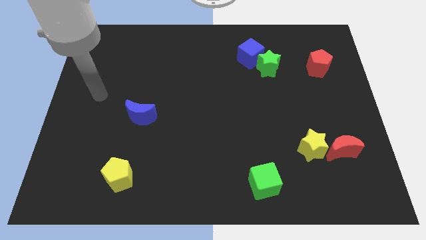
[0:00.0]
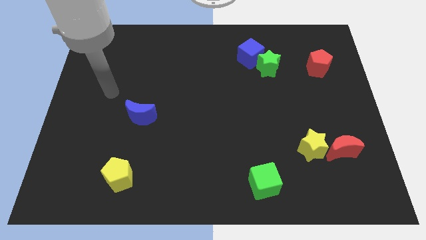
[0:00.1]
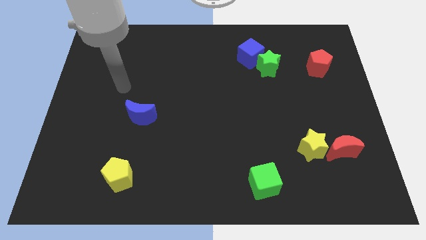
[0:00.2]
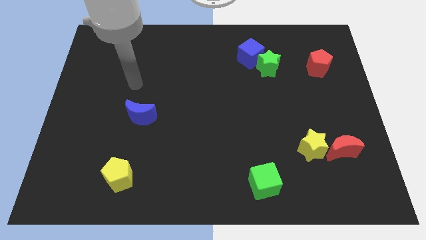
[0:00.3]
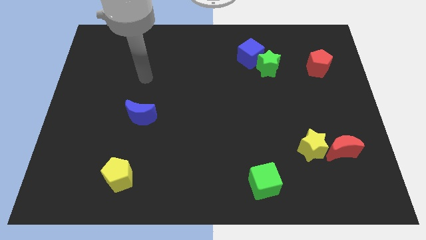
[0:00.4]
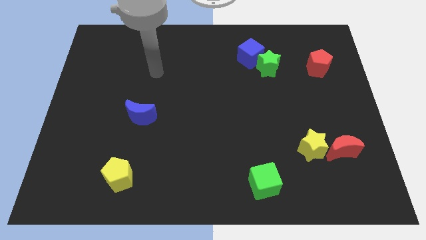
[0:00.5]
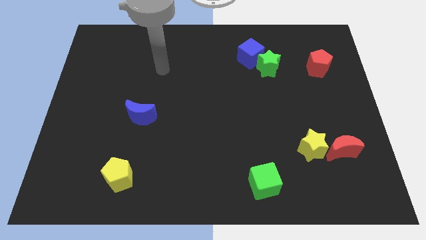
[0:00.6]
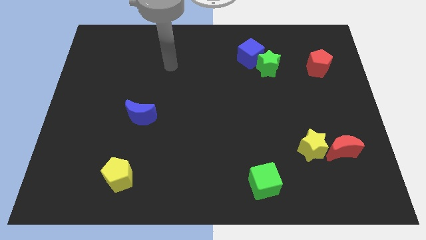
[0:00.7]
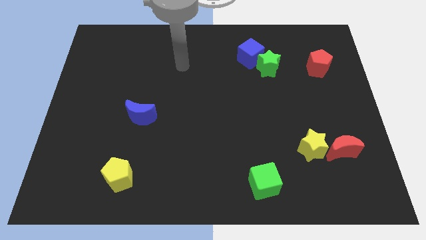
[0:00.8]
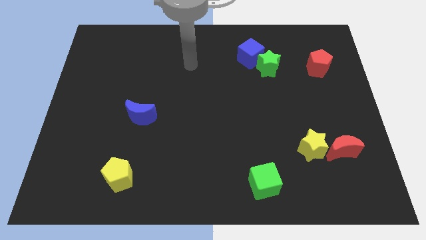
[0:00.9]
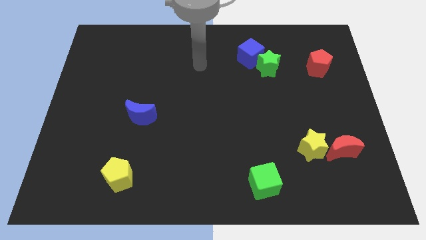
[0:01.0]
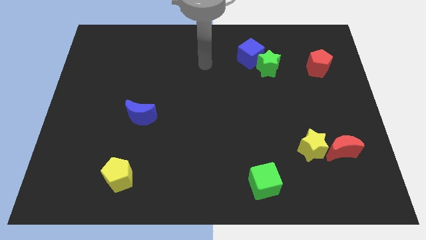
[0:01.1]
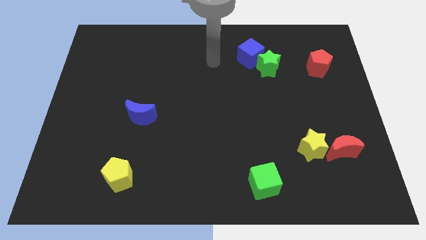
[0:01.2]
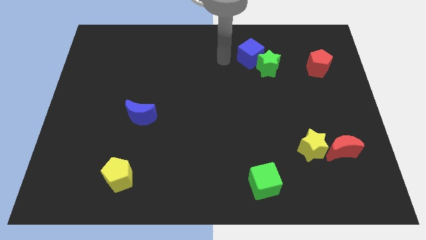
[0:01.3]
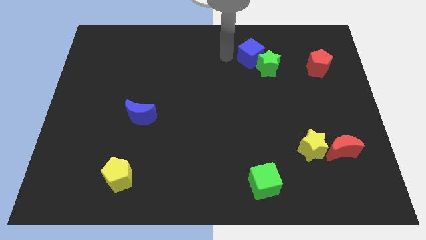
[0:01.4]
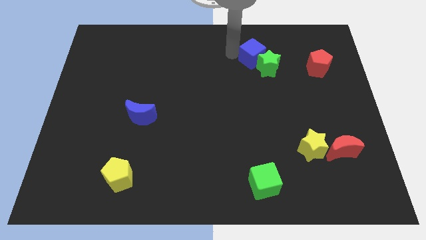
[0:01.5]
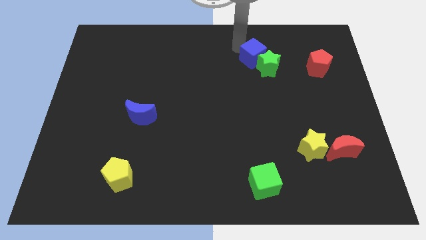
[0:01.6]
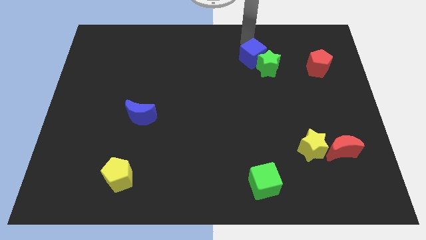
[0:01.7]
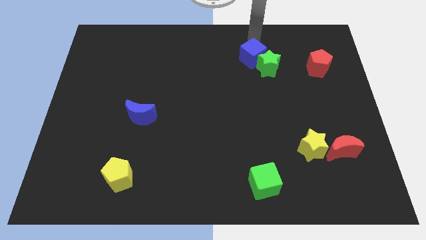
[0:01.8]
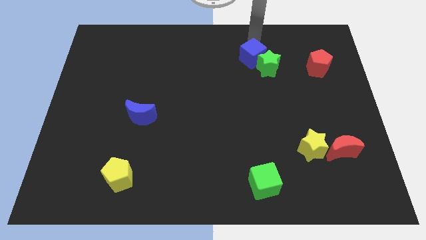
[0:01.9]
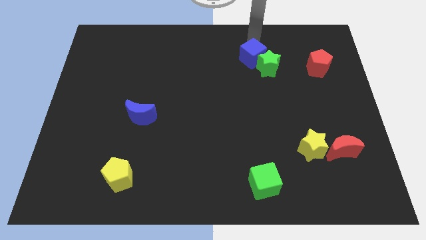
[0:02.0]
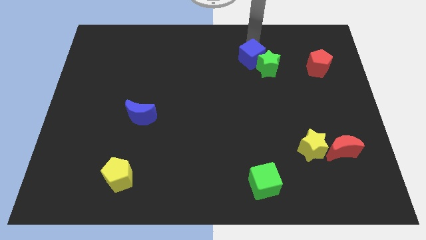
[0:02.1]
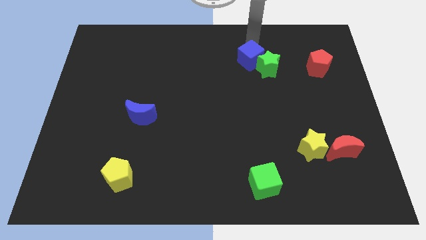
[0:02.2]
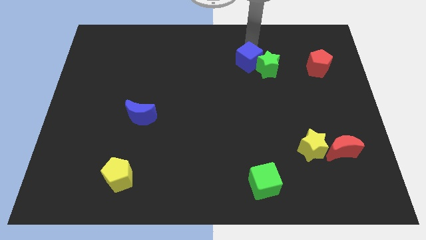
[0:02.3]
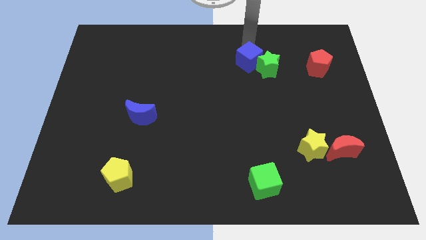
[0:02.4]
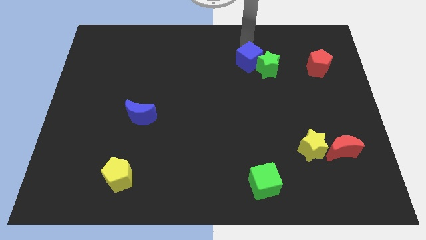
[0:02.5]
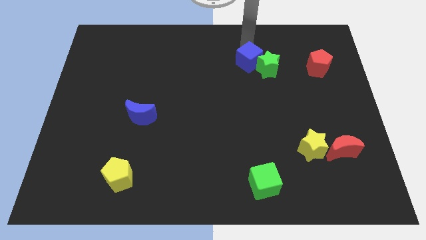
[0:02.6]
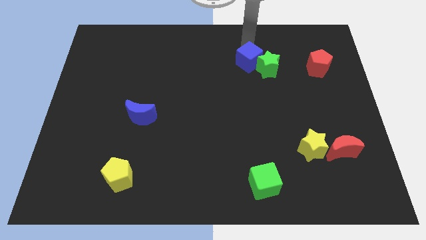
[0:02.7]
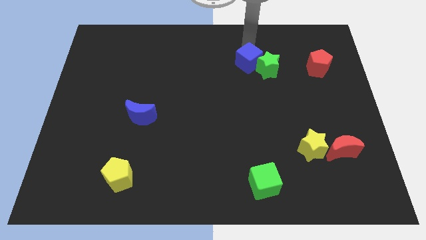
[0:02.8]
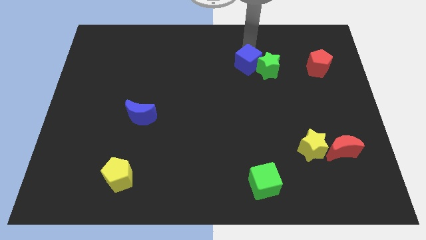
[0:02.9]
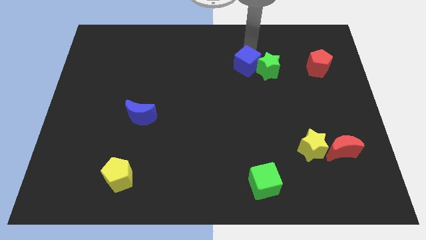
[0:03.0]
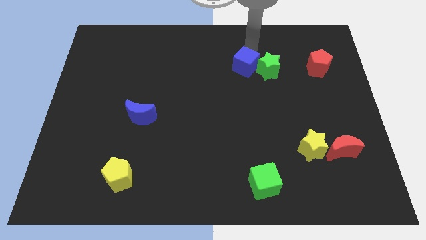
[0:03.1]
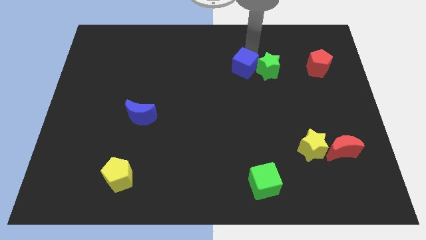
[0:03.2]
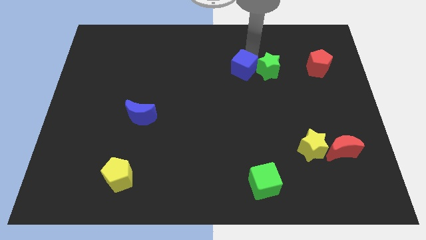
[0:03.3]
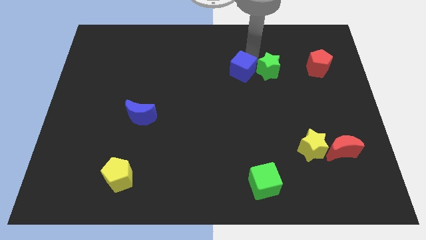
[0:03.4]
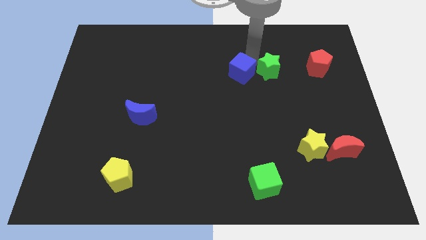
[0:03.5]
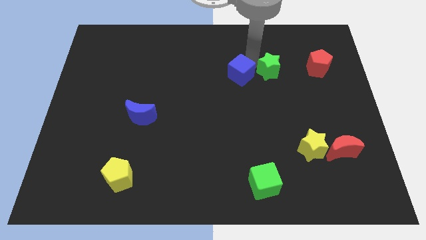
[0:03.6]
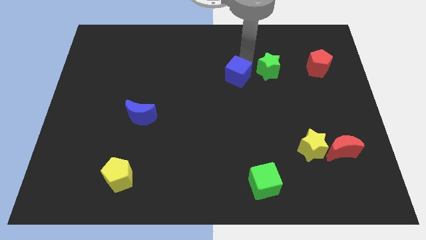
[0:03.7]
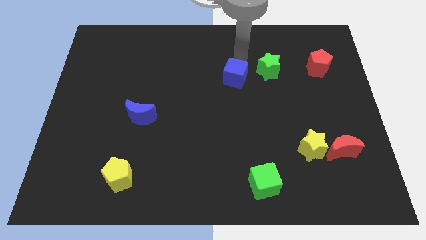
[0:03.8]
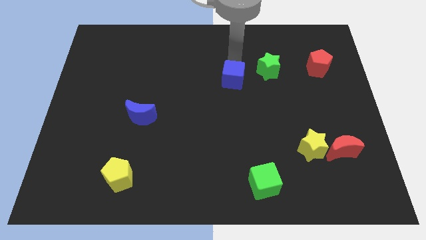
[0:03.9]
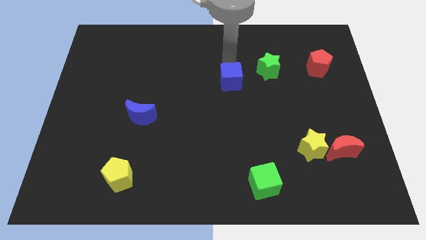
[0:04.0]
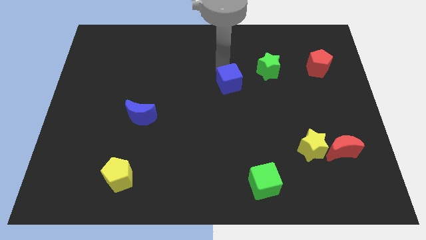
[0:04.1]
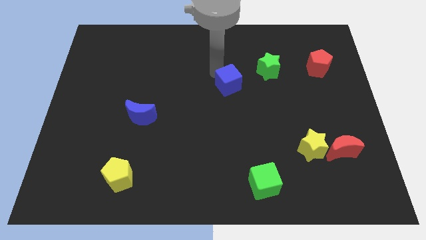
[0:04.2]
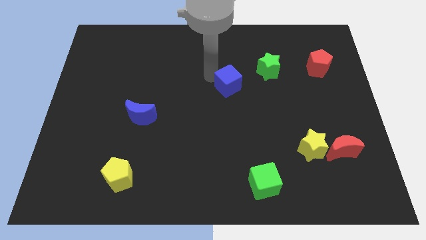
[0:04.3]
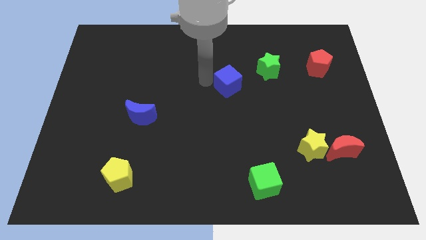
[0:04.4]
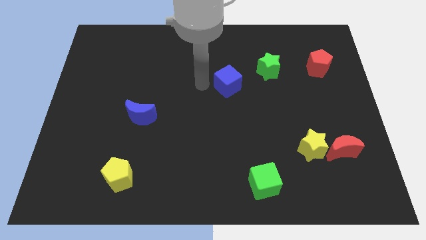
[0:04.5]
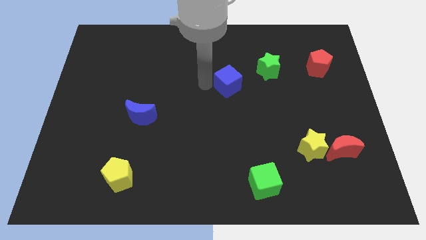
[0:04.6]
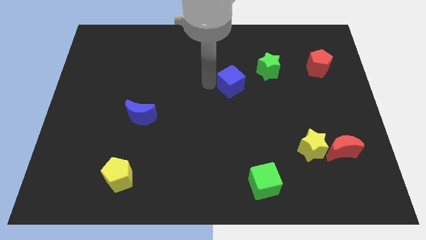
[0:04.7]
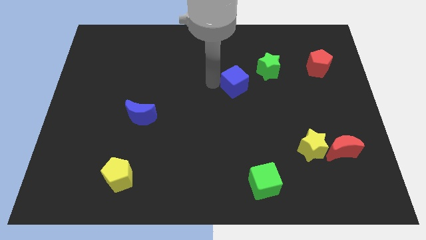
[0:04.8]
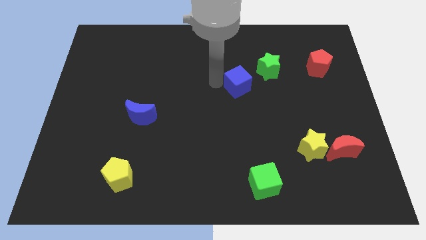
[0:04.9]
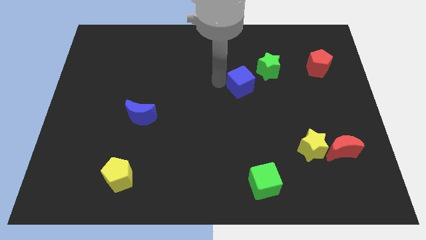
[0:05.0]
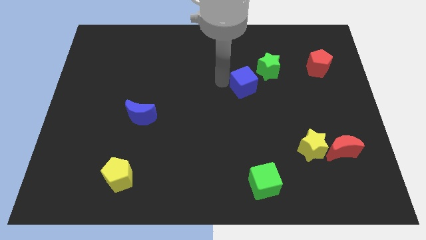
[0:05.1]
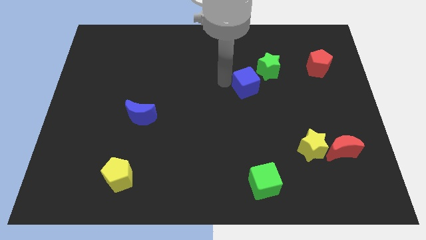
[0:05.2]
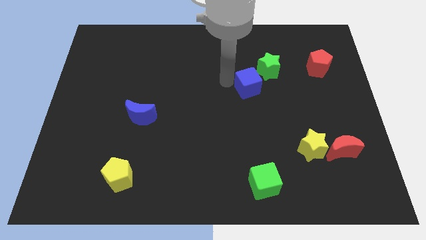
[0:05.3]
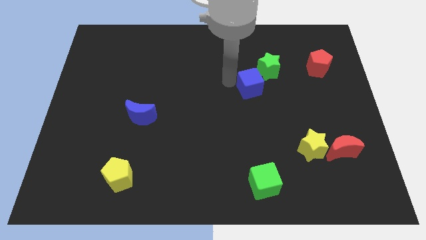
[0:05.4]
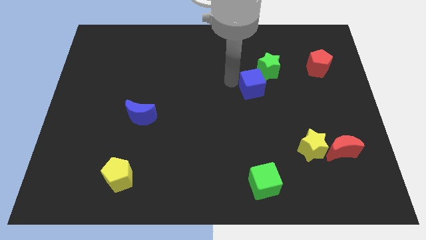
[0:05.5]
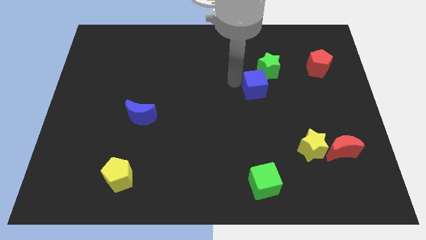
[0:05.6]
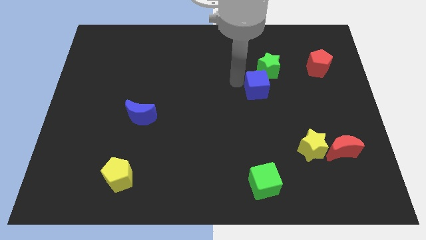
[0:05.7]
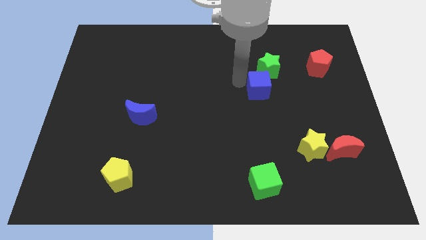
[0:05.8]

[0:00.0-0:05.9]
slightly slide the blue cube down and right

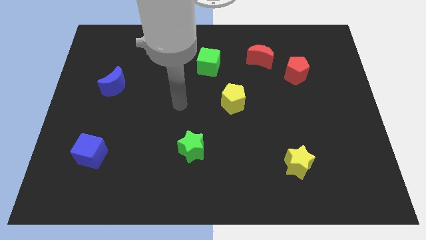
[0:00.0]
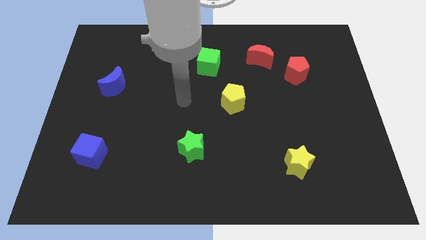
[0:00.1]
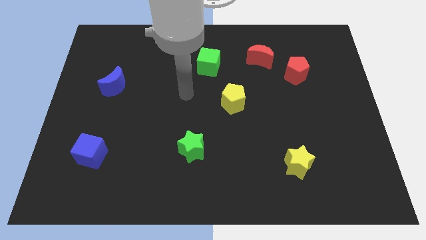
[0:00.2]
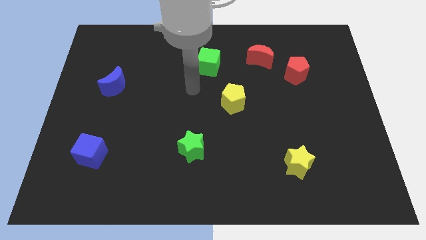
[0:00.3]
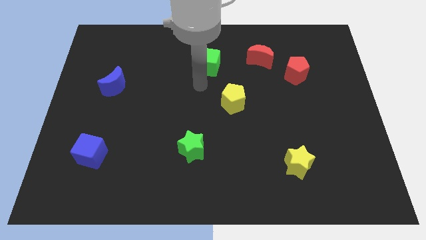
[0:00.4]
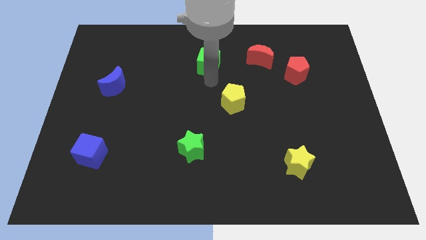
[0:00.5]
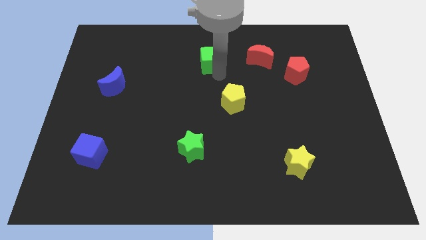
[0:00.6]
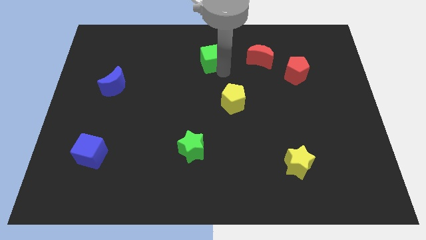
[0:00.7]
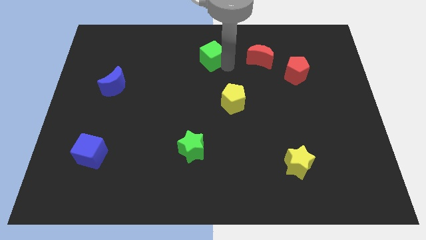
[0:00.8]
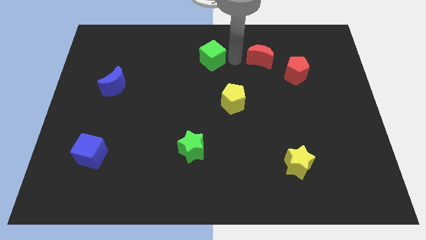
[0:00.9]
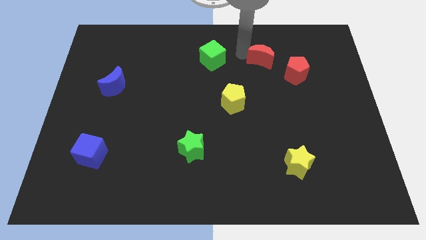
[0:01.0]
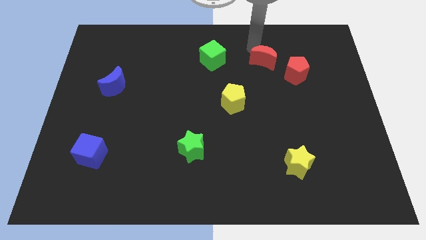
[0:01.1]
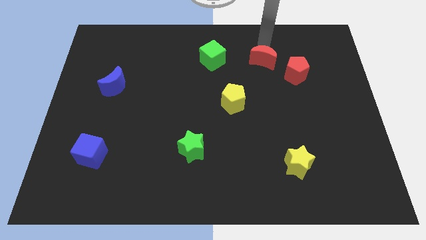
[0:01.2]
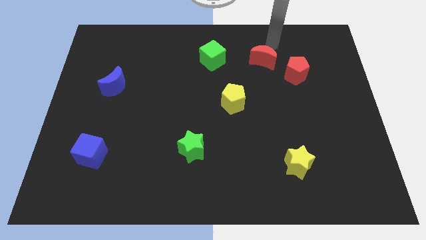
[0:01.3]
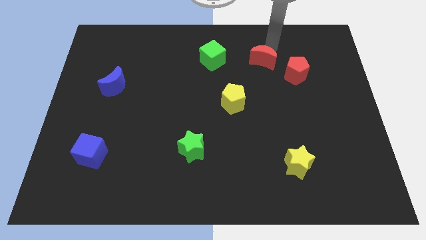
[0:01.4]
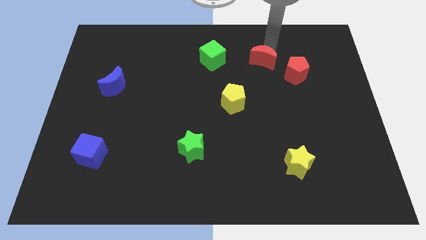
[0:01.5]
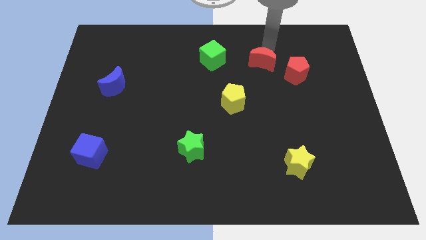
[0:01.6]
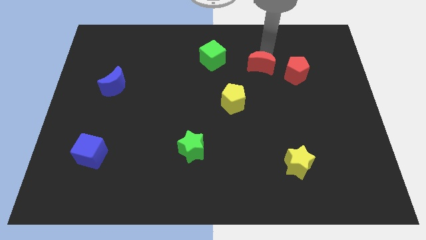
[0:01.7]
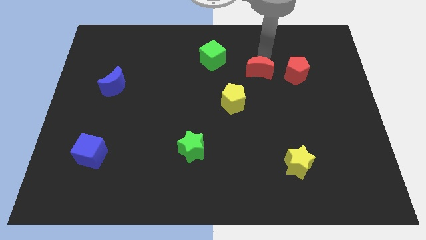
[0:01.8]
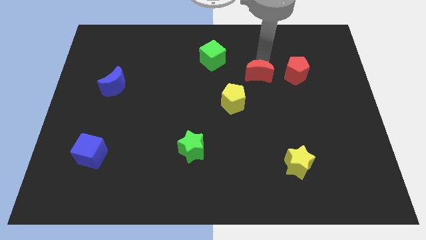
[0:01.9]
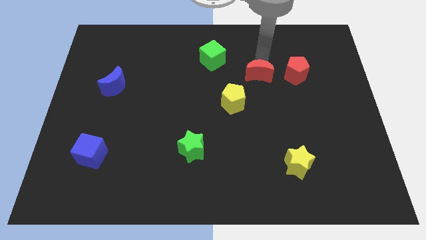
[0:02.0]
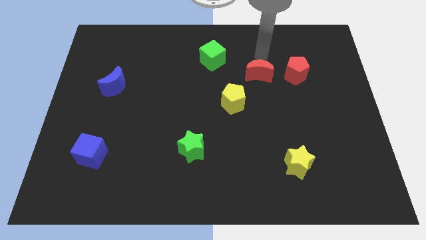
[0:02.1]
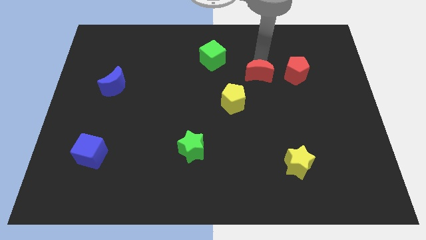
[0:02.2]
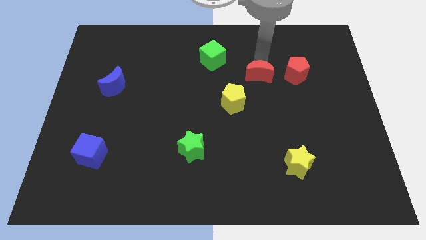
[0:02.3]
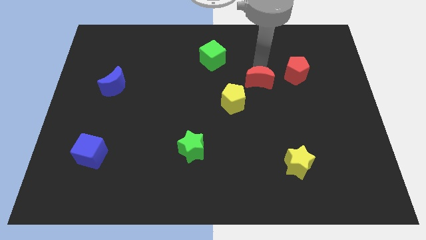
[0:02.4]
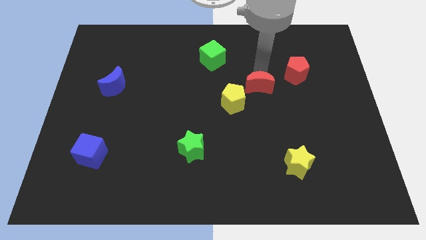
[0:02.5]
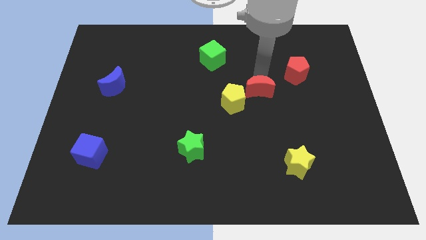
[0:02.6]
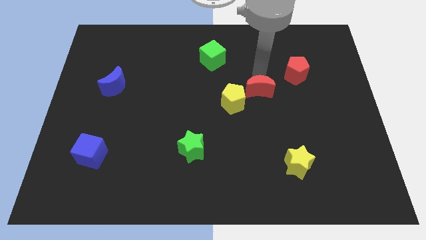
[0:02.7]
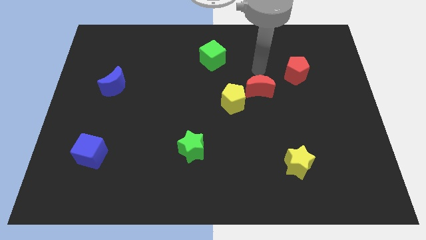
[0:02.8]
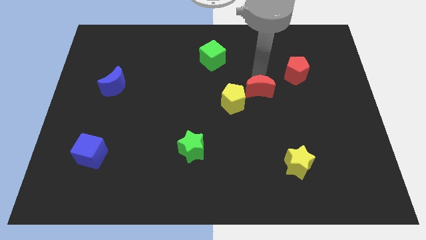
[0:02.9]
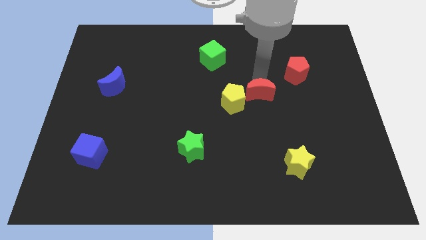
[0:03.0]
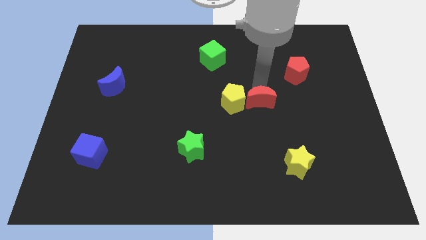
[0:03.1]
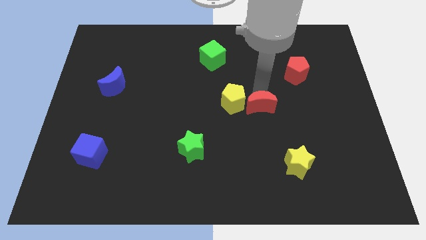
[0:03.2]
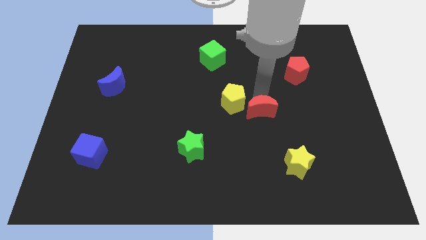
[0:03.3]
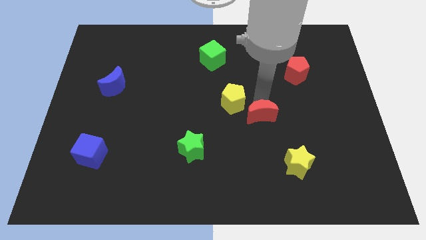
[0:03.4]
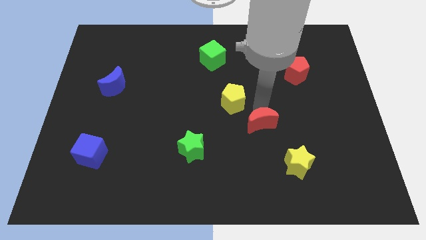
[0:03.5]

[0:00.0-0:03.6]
push the red moon down
